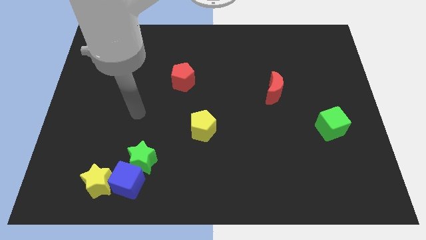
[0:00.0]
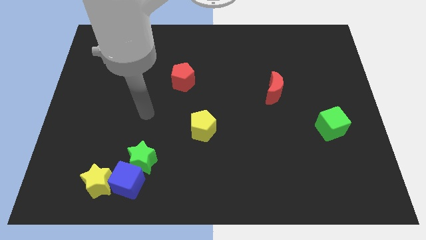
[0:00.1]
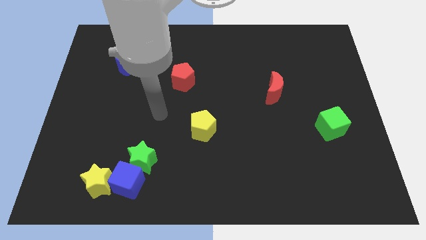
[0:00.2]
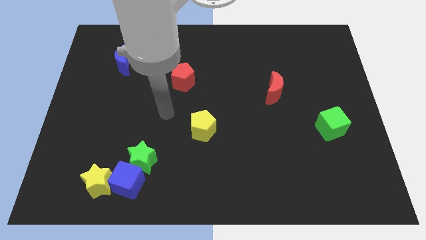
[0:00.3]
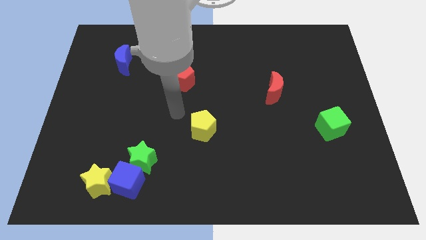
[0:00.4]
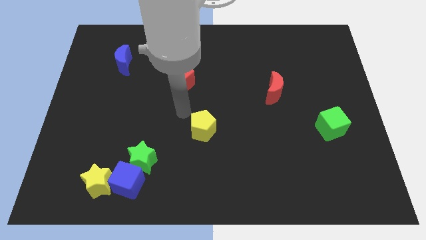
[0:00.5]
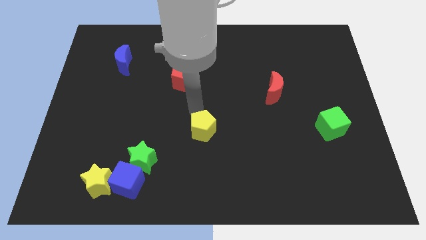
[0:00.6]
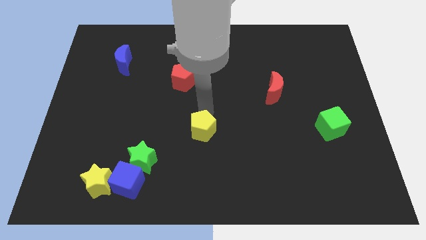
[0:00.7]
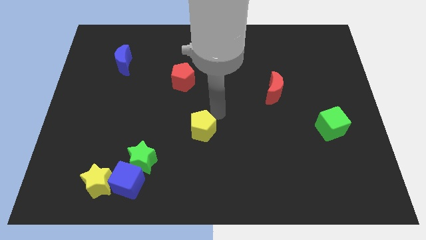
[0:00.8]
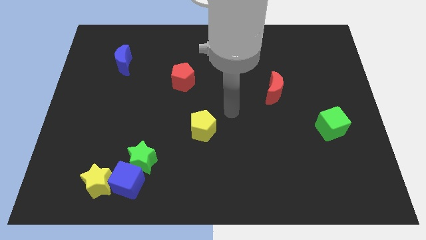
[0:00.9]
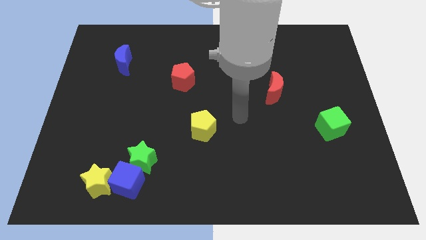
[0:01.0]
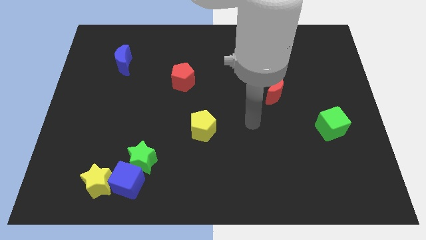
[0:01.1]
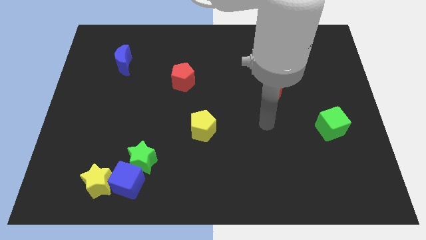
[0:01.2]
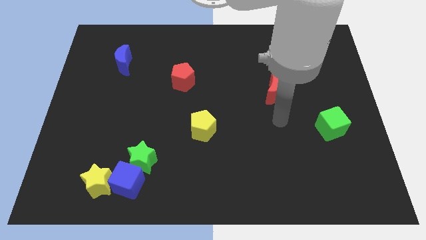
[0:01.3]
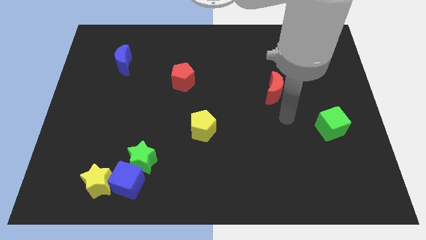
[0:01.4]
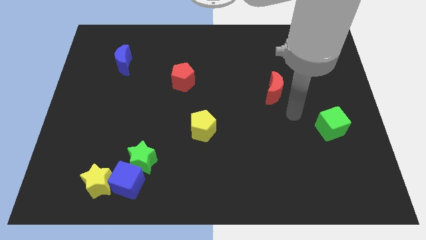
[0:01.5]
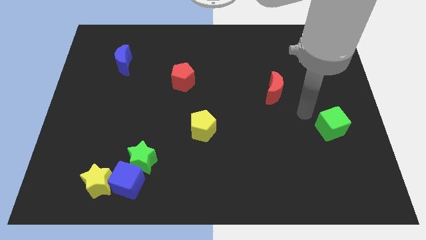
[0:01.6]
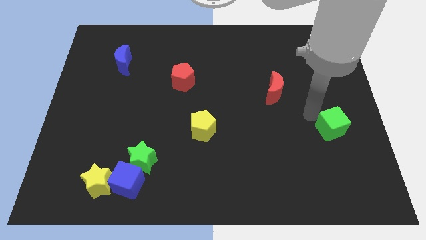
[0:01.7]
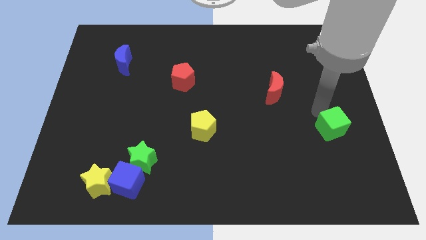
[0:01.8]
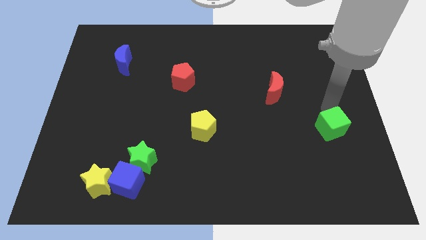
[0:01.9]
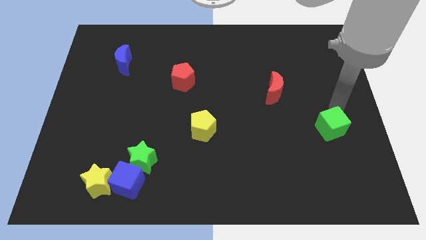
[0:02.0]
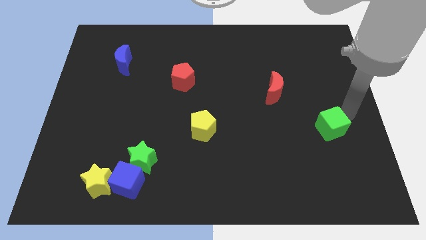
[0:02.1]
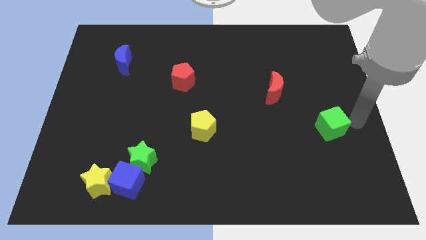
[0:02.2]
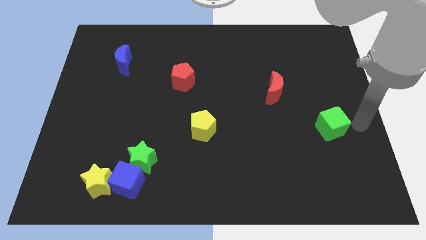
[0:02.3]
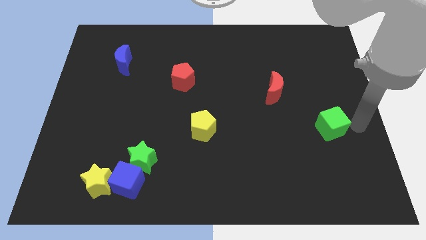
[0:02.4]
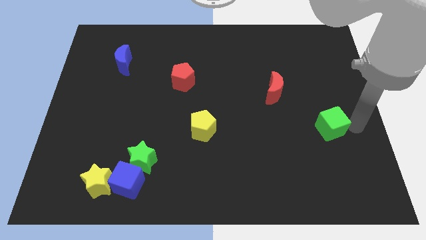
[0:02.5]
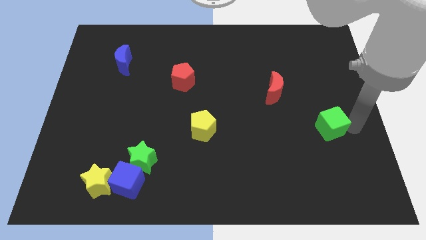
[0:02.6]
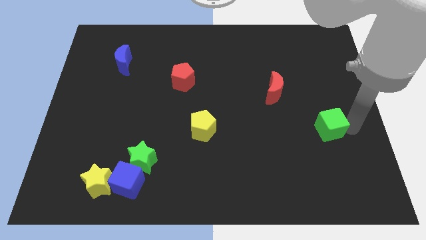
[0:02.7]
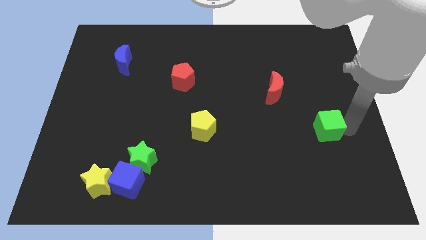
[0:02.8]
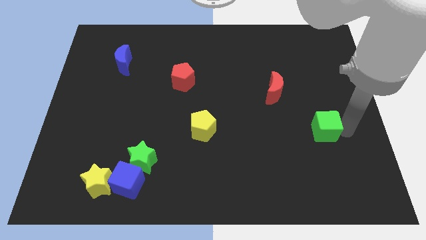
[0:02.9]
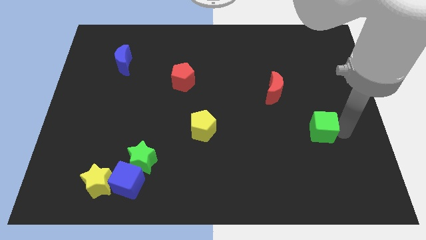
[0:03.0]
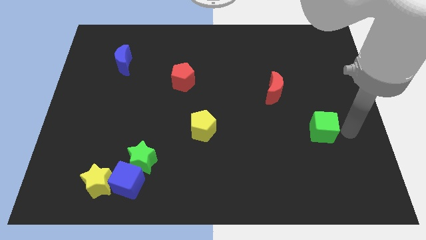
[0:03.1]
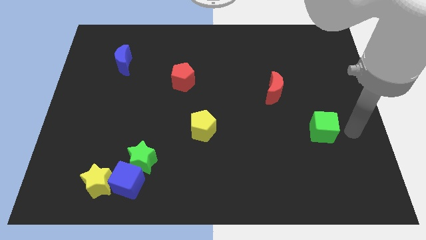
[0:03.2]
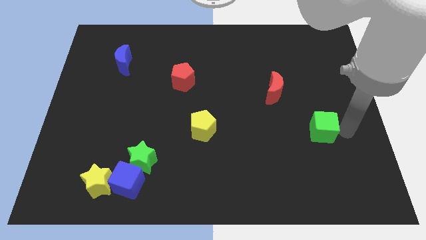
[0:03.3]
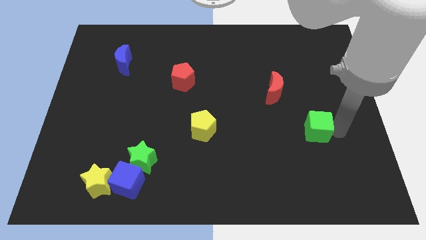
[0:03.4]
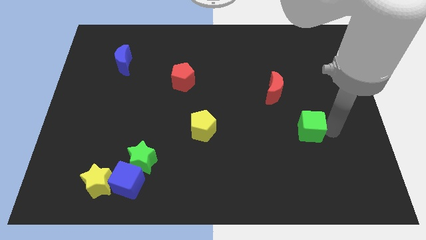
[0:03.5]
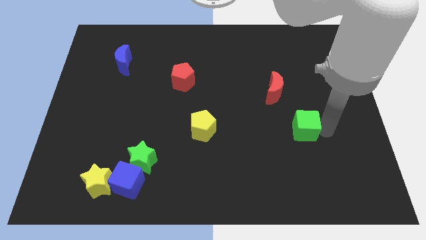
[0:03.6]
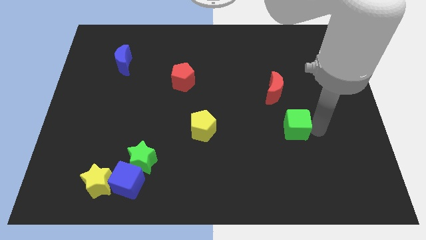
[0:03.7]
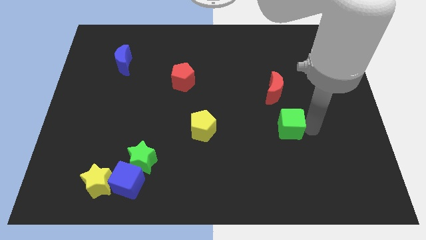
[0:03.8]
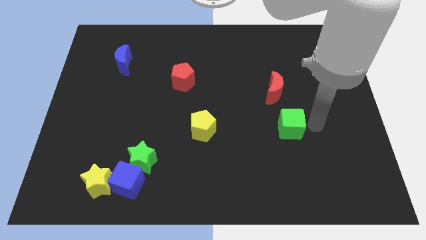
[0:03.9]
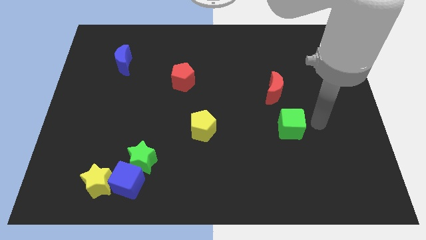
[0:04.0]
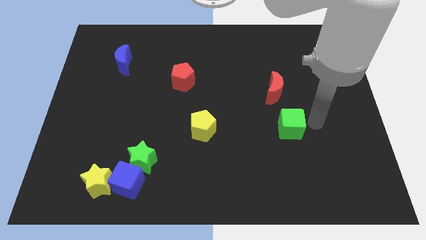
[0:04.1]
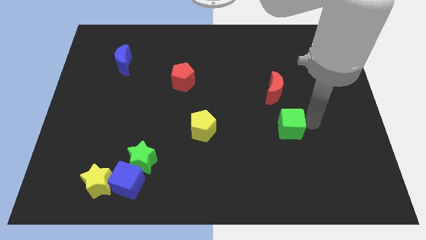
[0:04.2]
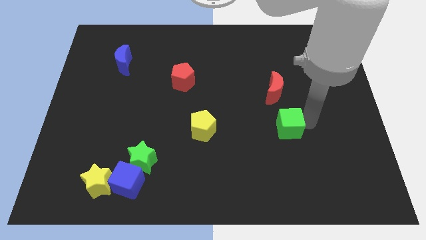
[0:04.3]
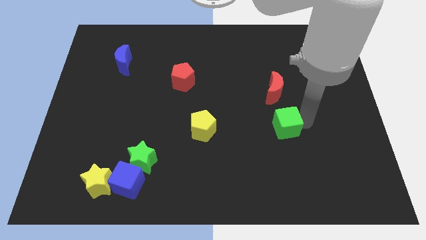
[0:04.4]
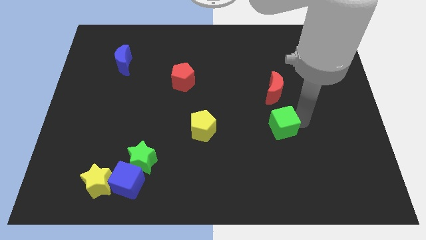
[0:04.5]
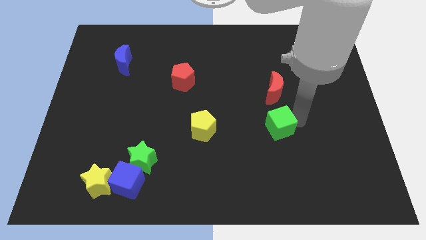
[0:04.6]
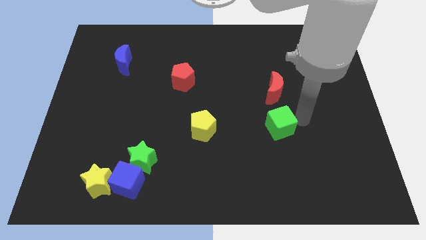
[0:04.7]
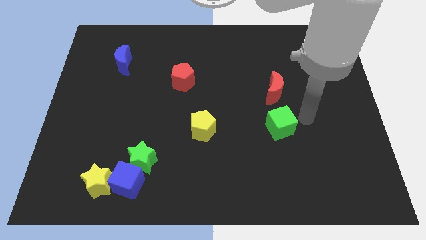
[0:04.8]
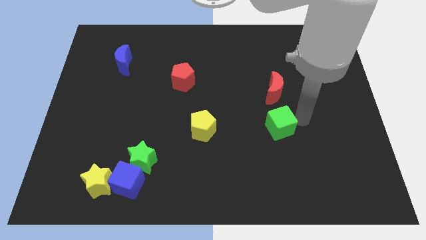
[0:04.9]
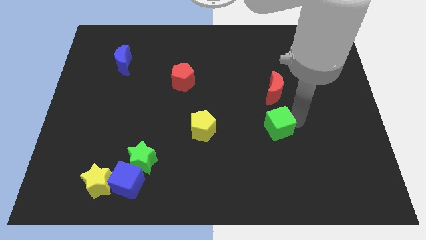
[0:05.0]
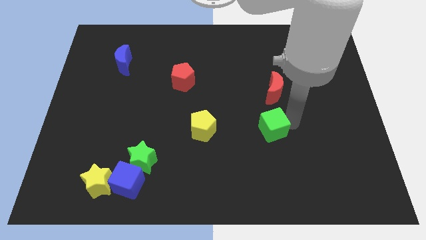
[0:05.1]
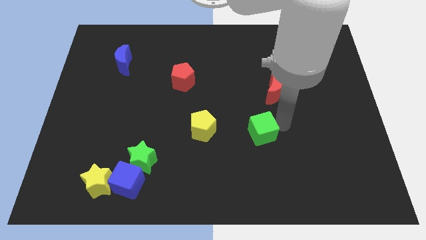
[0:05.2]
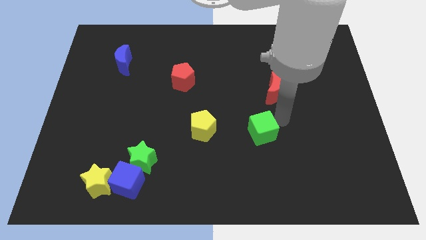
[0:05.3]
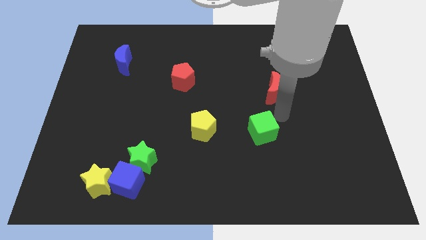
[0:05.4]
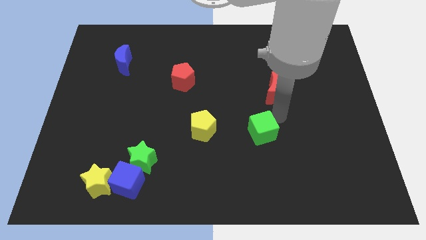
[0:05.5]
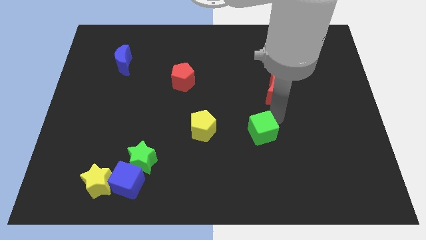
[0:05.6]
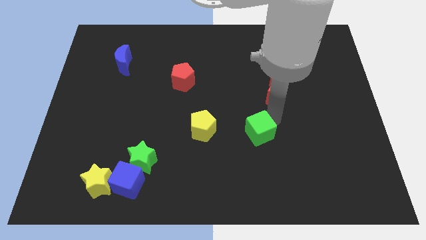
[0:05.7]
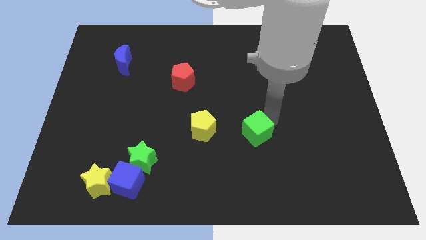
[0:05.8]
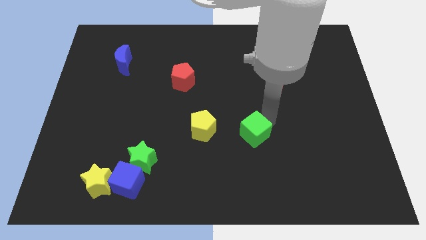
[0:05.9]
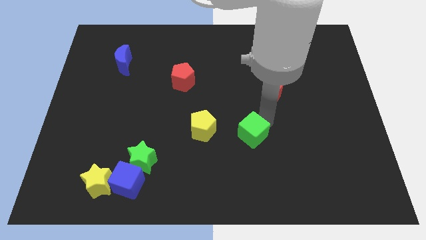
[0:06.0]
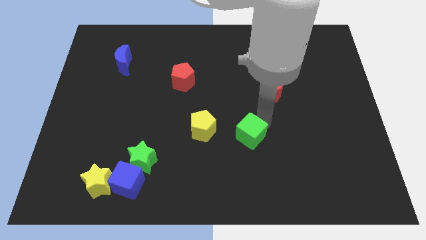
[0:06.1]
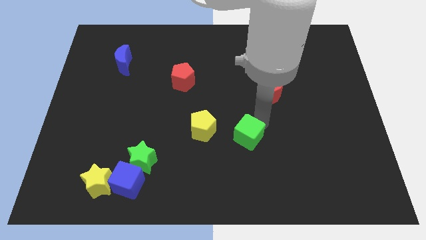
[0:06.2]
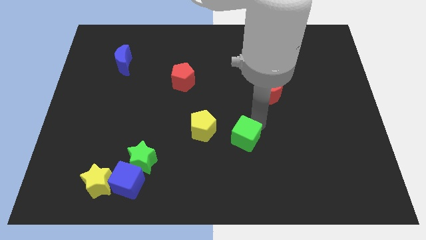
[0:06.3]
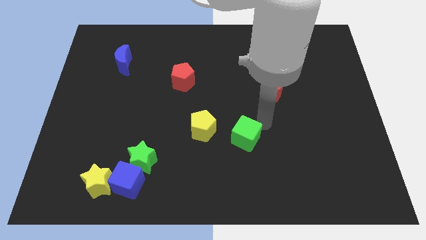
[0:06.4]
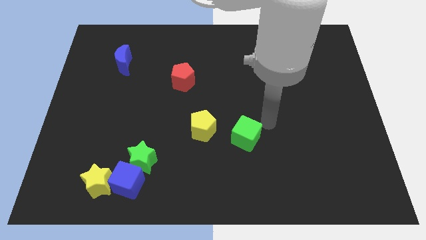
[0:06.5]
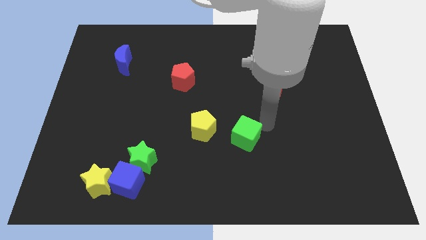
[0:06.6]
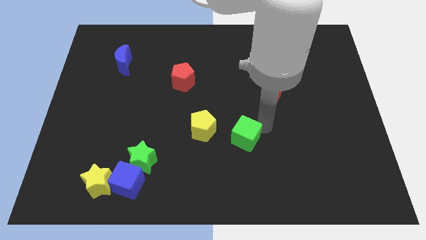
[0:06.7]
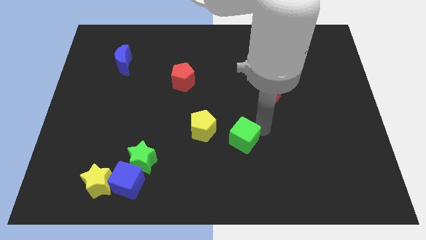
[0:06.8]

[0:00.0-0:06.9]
put the green cube to the bottom right side of the yellow pentagon

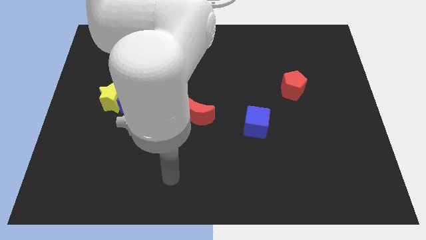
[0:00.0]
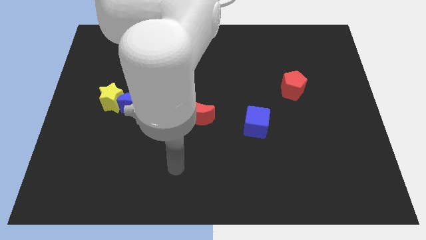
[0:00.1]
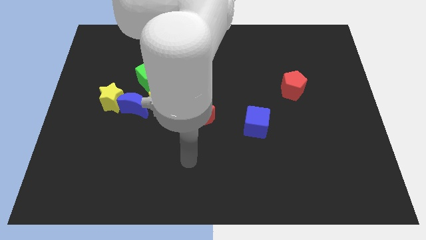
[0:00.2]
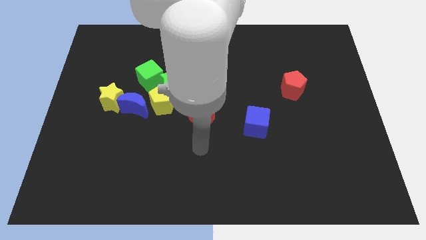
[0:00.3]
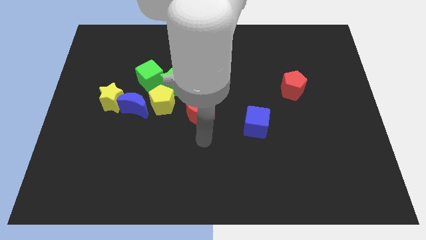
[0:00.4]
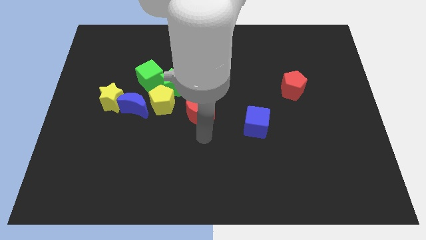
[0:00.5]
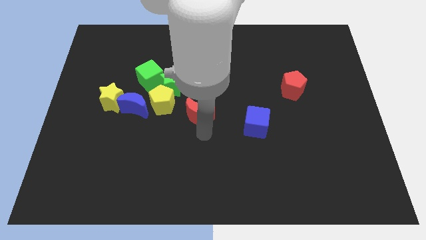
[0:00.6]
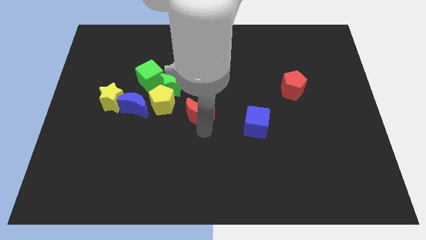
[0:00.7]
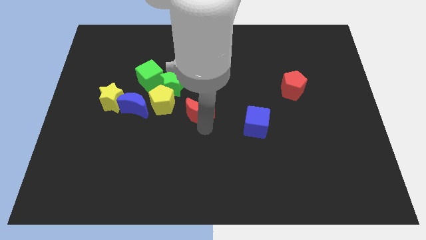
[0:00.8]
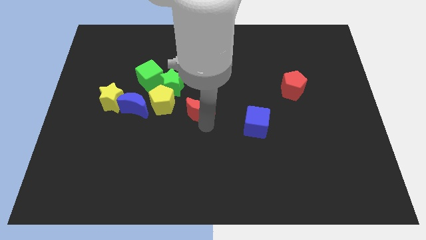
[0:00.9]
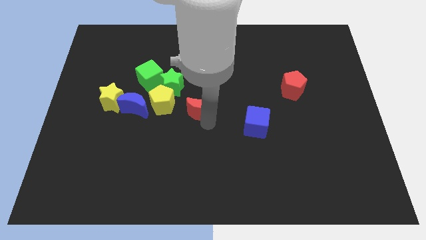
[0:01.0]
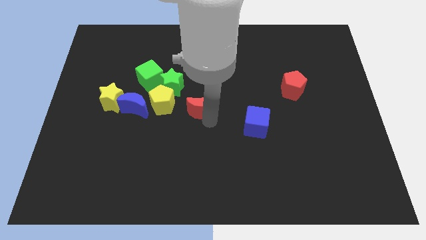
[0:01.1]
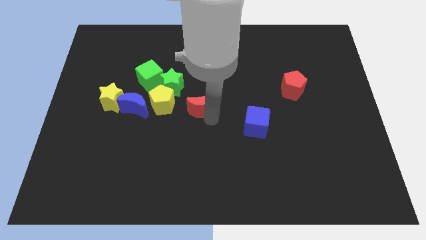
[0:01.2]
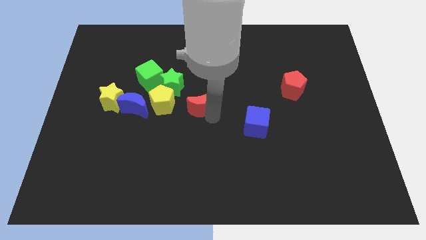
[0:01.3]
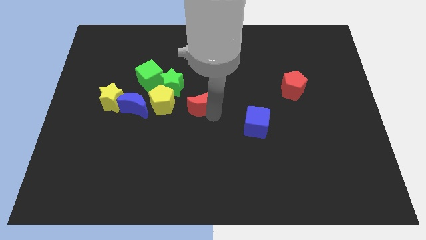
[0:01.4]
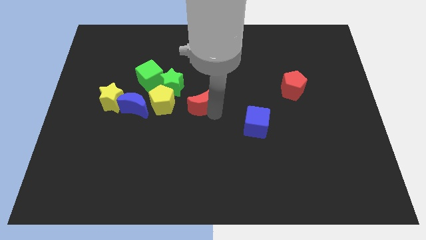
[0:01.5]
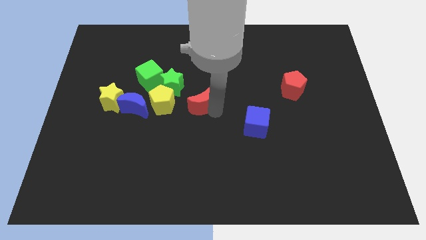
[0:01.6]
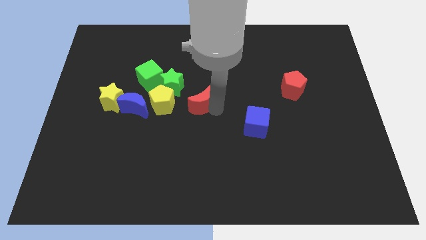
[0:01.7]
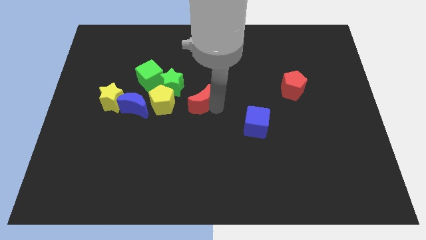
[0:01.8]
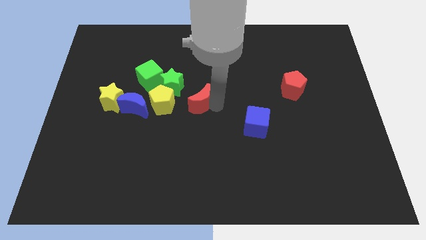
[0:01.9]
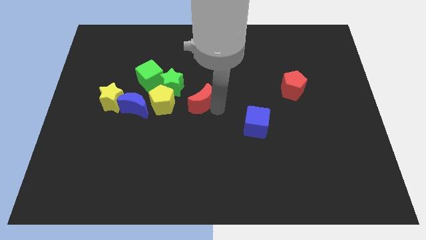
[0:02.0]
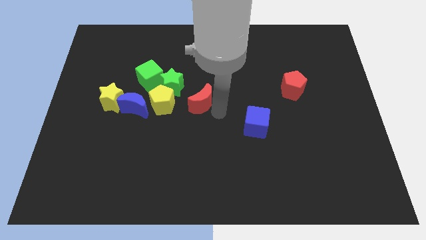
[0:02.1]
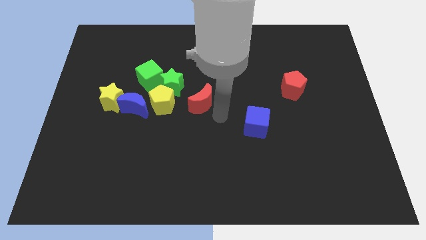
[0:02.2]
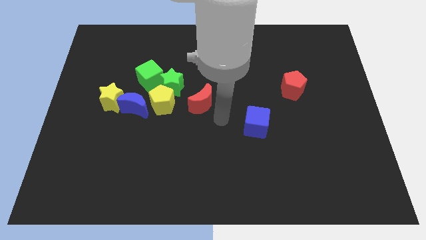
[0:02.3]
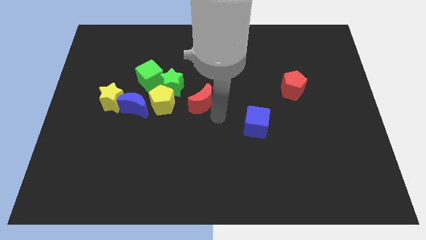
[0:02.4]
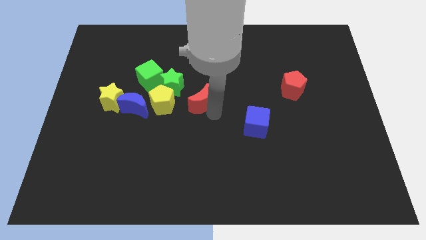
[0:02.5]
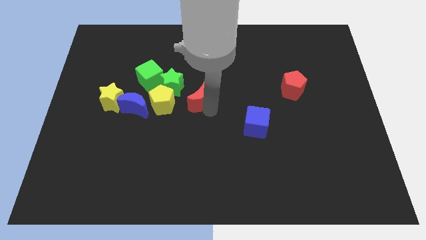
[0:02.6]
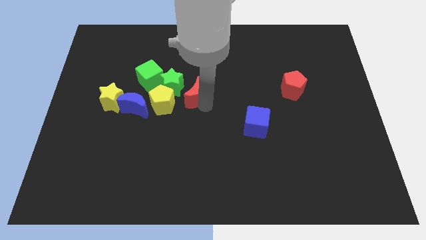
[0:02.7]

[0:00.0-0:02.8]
push the red moon diagonally up and to the right of the yellow pentagon
